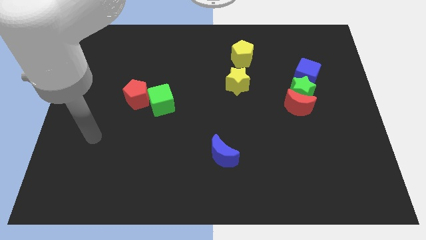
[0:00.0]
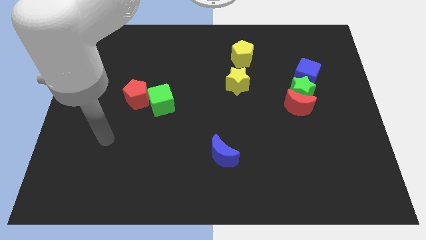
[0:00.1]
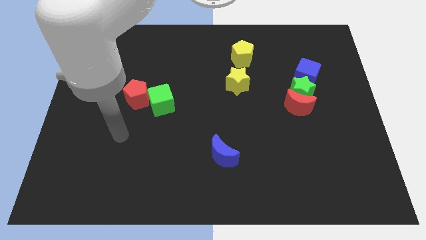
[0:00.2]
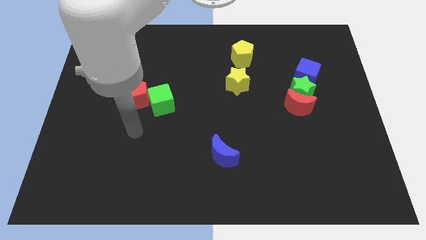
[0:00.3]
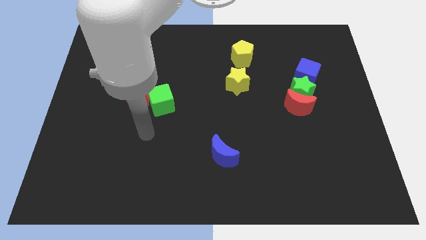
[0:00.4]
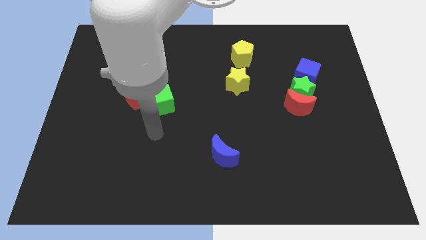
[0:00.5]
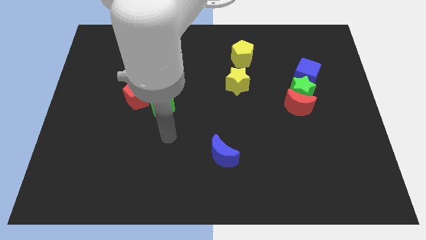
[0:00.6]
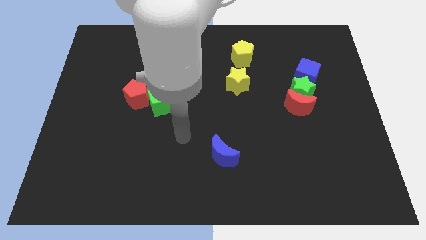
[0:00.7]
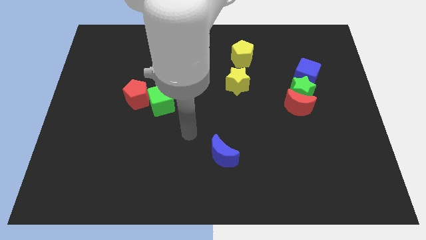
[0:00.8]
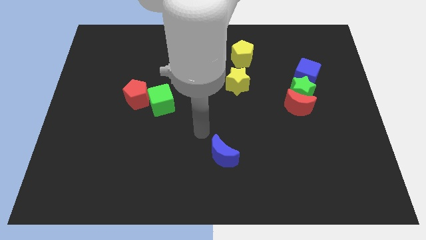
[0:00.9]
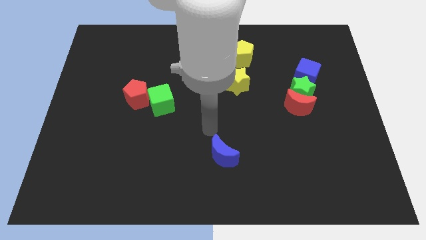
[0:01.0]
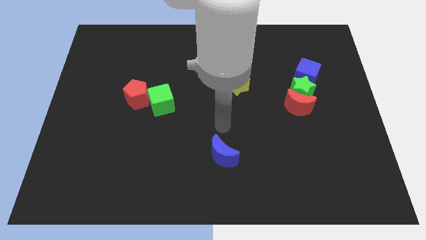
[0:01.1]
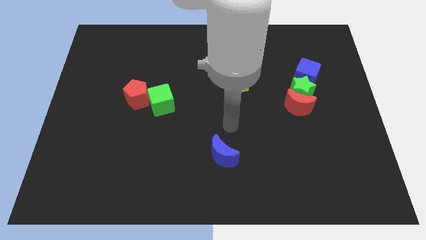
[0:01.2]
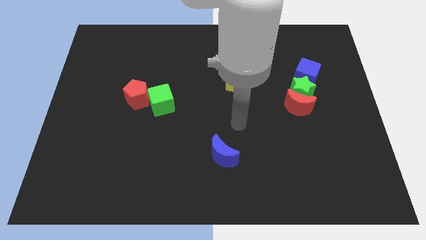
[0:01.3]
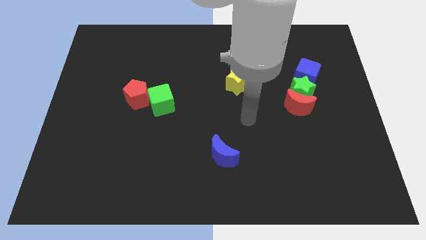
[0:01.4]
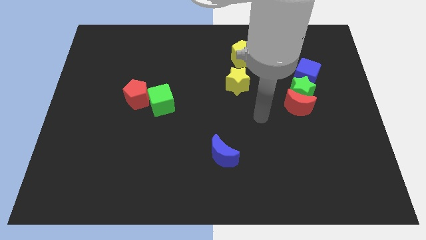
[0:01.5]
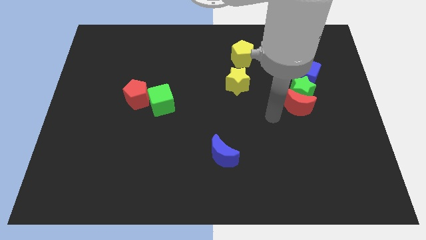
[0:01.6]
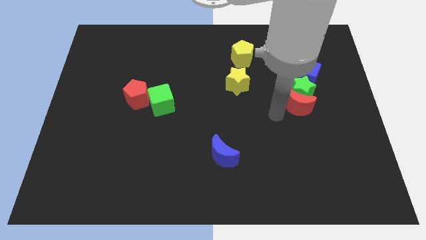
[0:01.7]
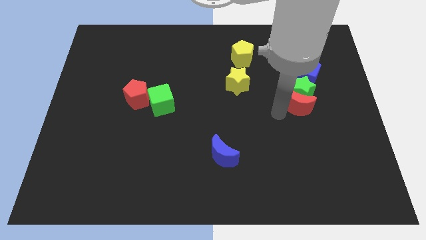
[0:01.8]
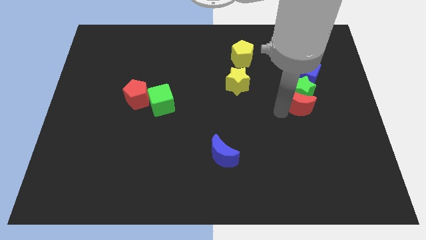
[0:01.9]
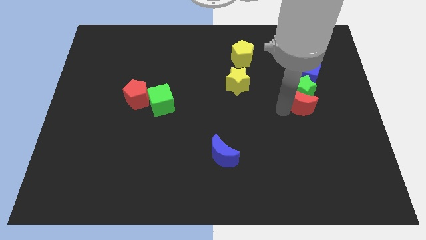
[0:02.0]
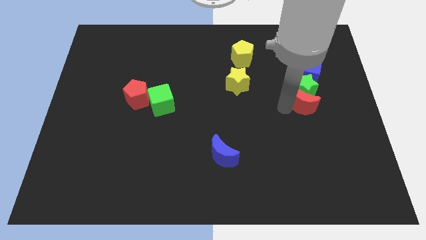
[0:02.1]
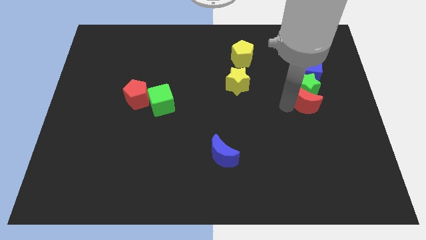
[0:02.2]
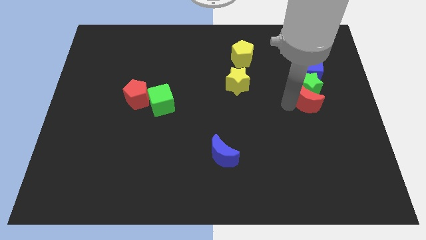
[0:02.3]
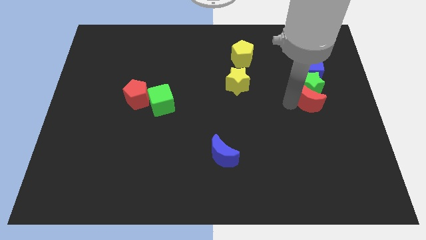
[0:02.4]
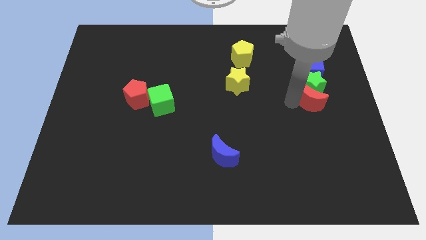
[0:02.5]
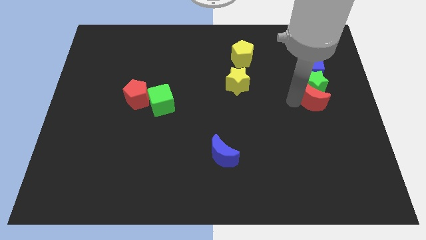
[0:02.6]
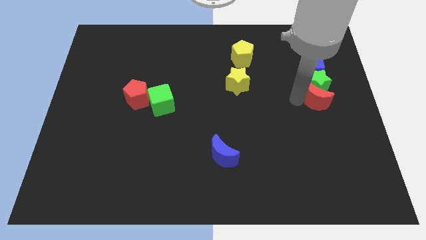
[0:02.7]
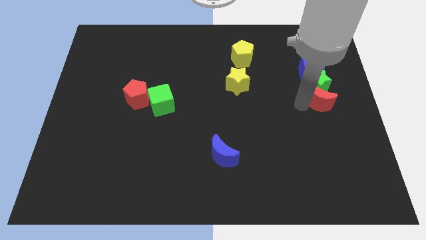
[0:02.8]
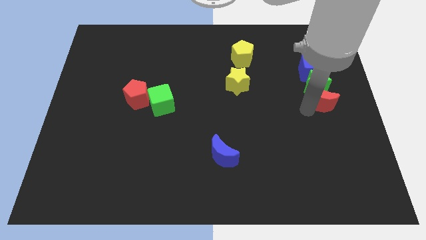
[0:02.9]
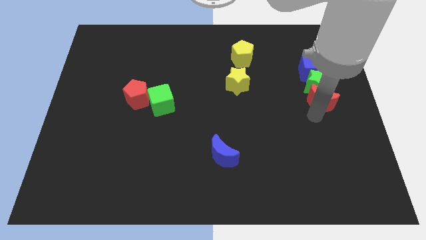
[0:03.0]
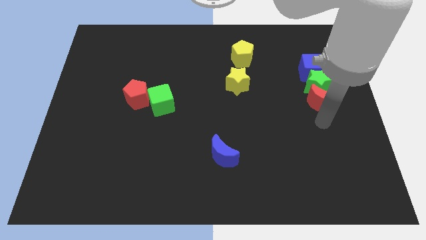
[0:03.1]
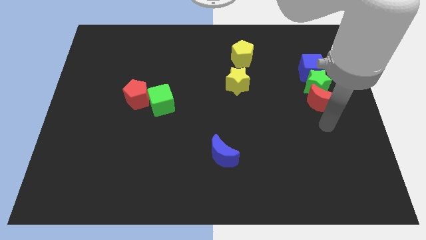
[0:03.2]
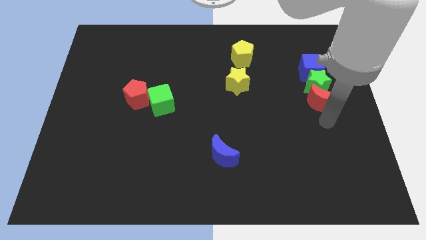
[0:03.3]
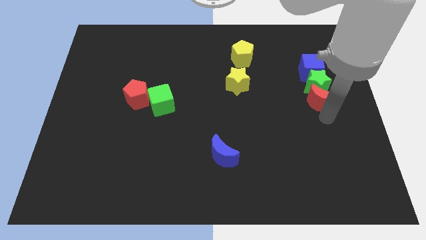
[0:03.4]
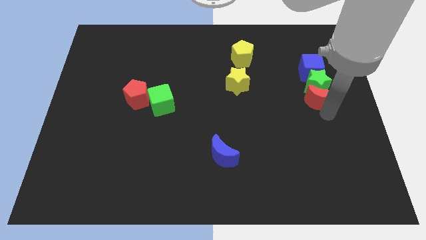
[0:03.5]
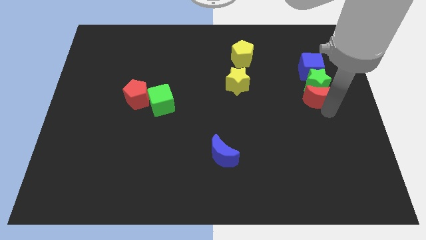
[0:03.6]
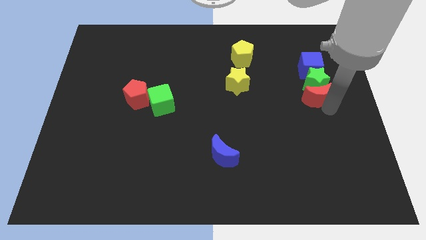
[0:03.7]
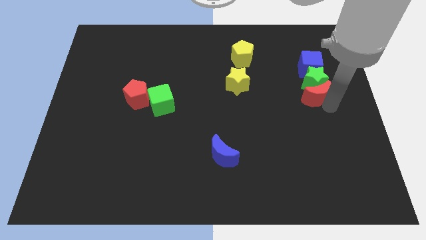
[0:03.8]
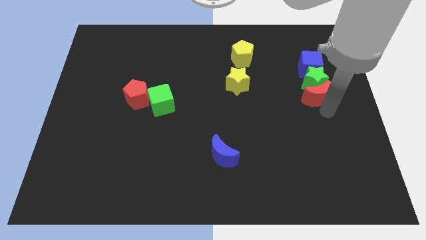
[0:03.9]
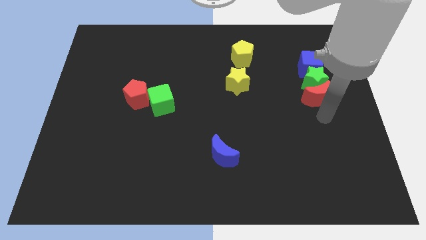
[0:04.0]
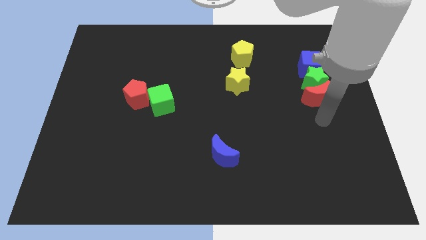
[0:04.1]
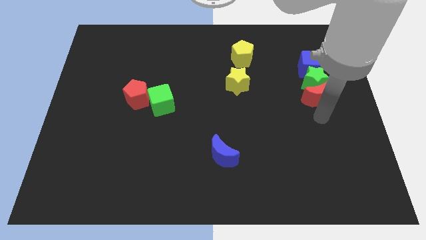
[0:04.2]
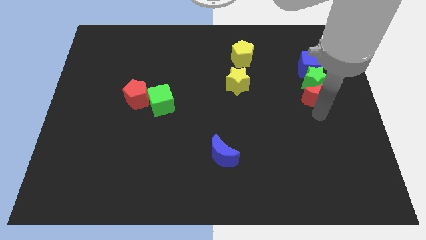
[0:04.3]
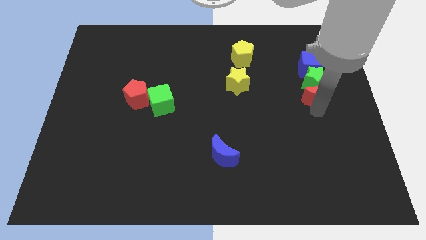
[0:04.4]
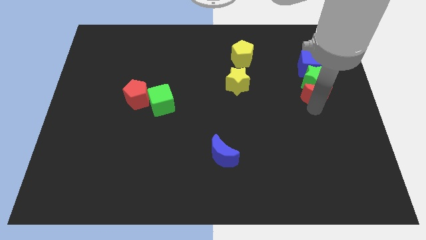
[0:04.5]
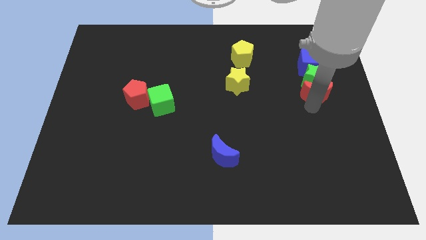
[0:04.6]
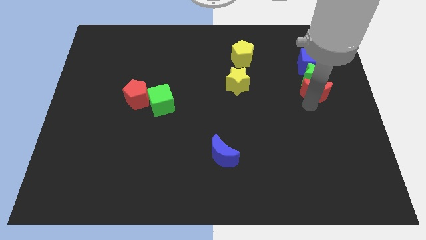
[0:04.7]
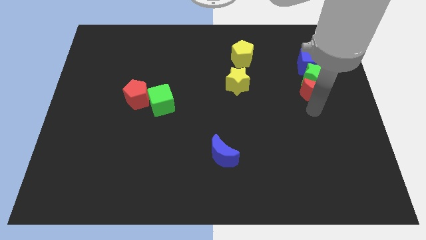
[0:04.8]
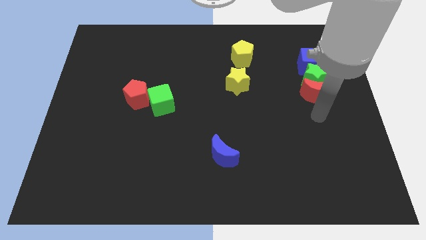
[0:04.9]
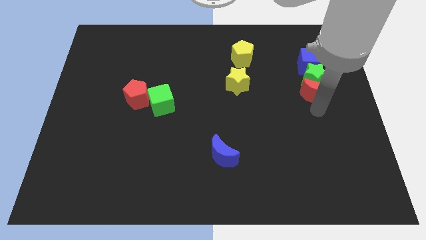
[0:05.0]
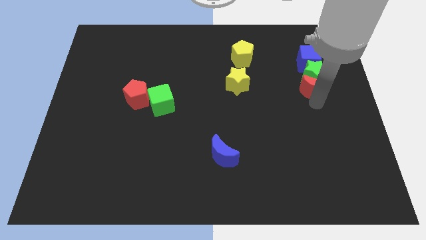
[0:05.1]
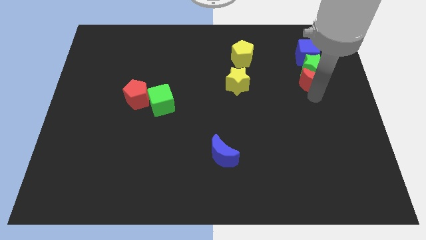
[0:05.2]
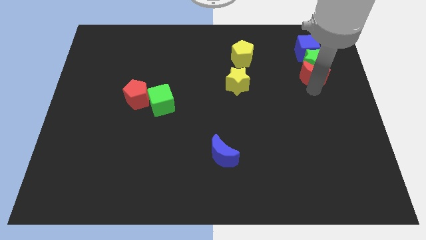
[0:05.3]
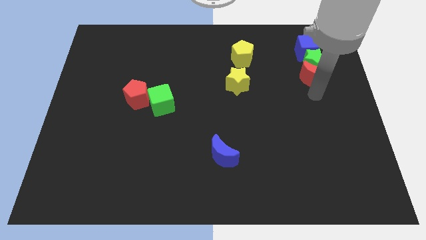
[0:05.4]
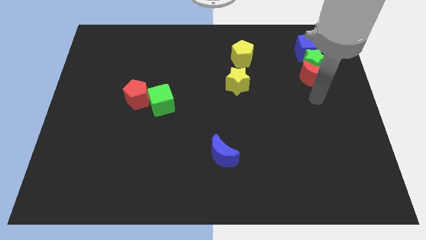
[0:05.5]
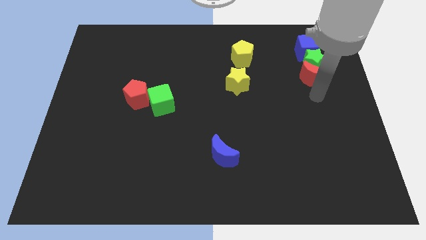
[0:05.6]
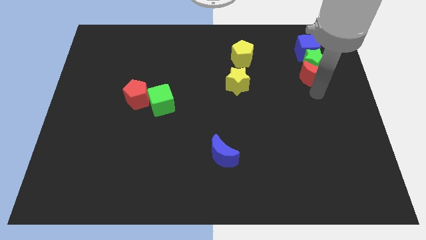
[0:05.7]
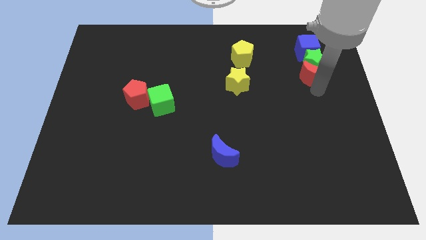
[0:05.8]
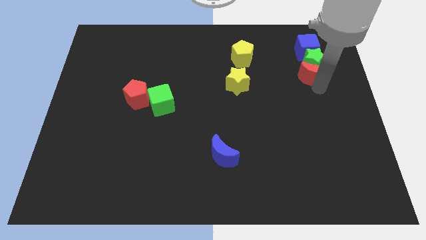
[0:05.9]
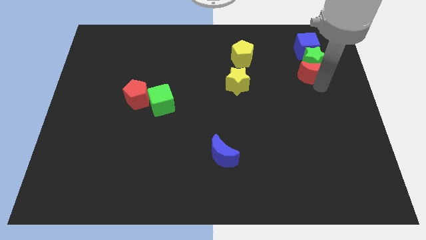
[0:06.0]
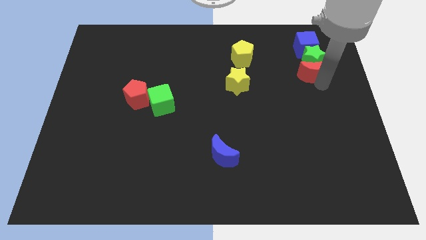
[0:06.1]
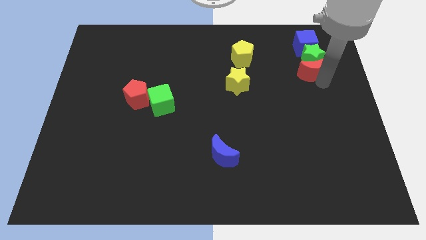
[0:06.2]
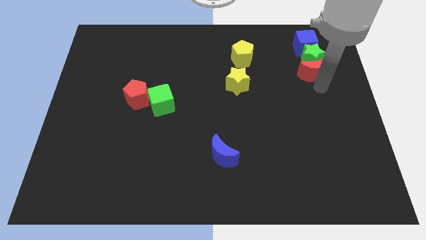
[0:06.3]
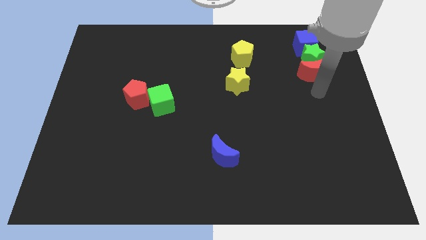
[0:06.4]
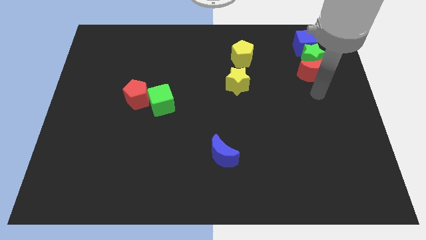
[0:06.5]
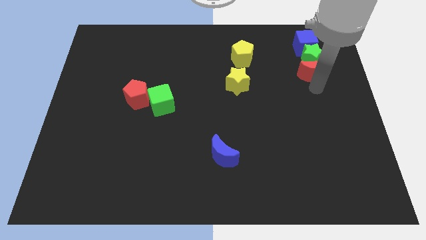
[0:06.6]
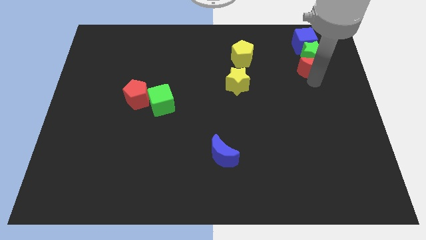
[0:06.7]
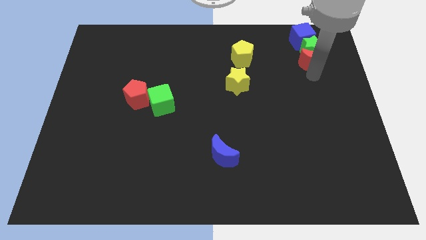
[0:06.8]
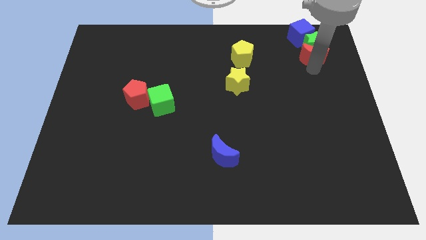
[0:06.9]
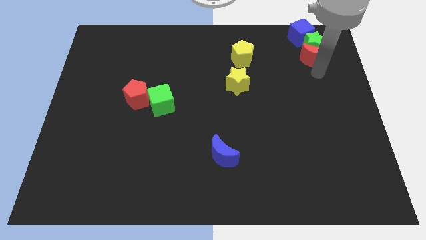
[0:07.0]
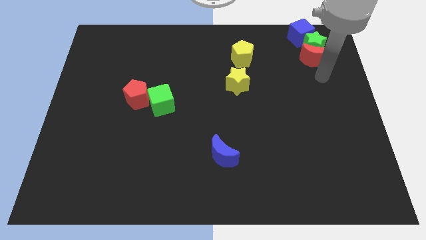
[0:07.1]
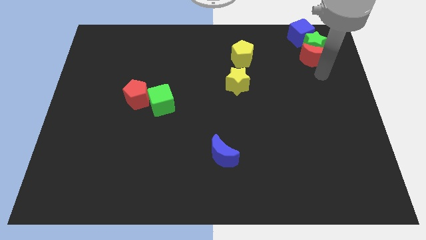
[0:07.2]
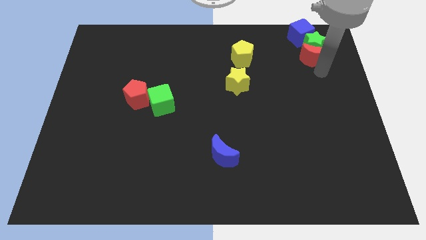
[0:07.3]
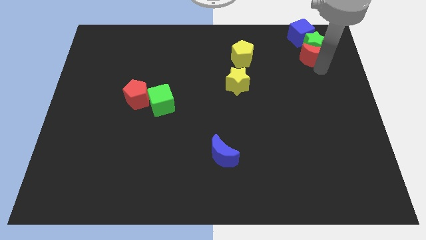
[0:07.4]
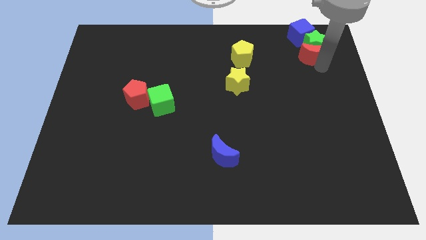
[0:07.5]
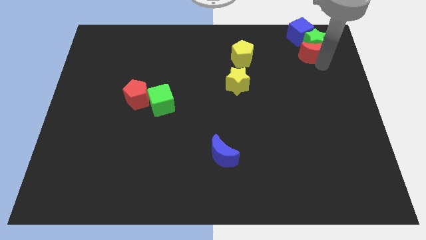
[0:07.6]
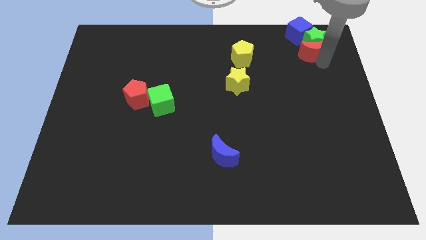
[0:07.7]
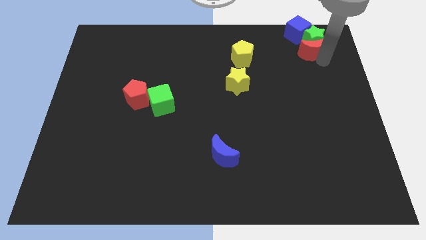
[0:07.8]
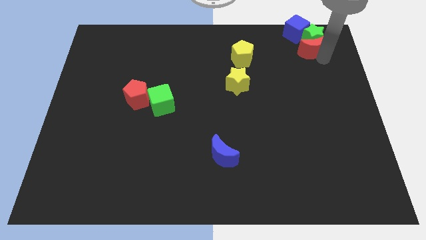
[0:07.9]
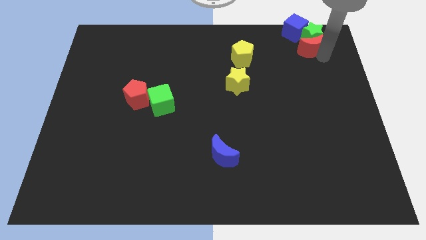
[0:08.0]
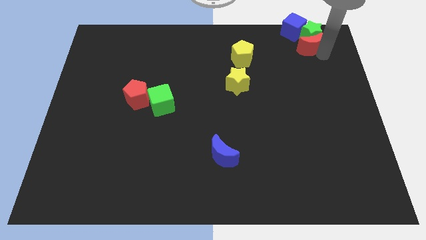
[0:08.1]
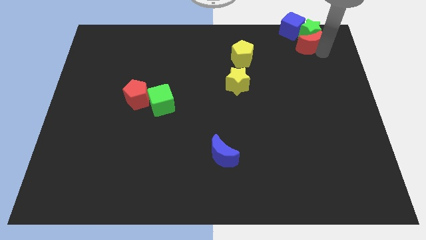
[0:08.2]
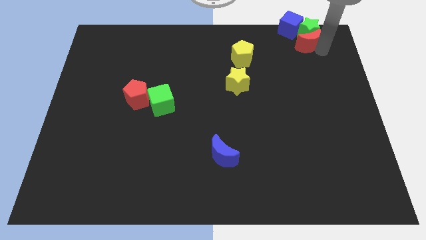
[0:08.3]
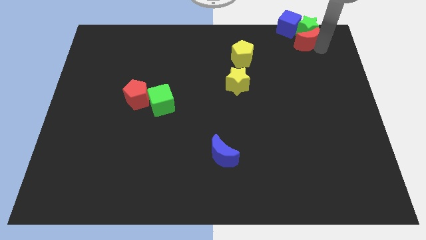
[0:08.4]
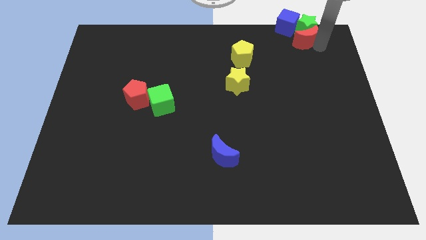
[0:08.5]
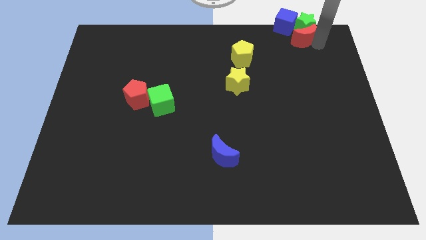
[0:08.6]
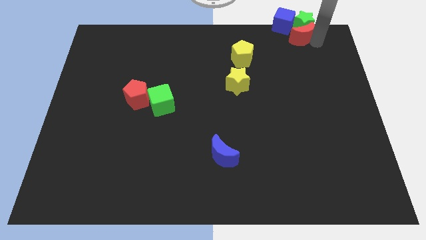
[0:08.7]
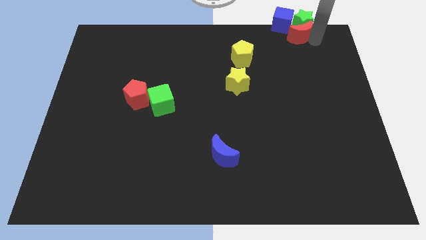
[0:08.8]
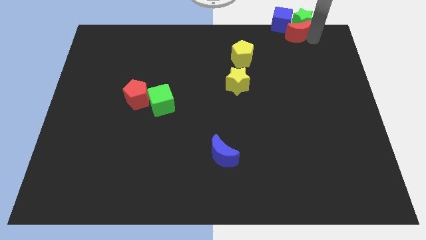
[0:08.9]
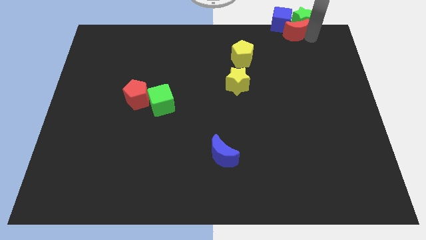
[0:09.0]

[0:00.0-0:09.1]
slide the red moon towards the blue cube
